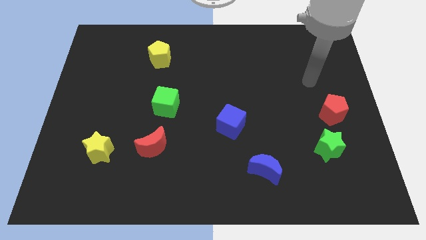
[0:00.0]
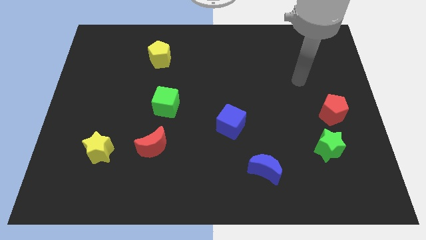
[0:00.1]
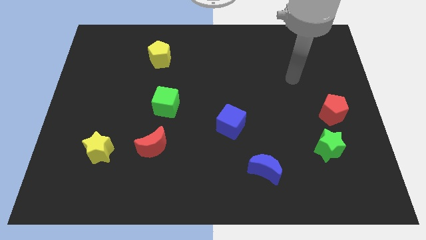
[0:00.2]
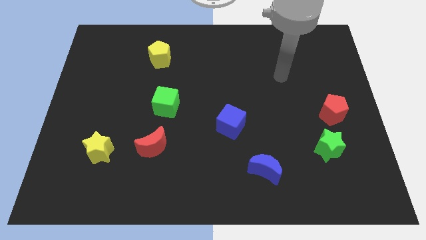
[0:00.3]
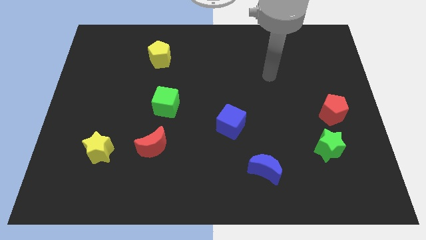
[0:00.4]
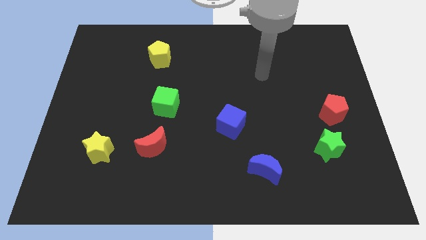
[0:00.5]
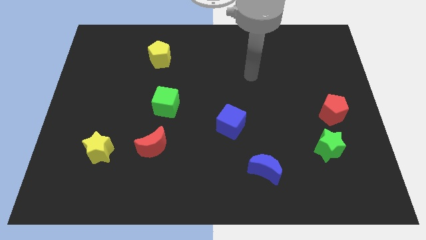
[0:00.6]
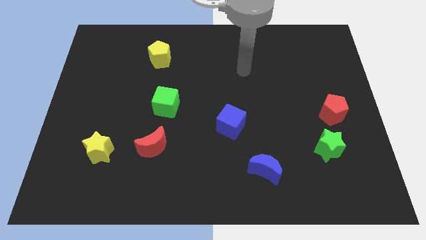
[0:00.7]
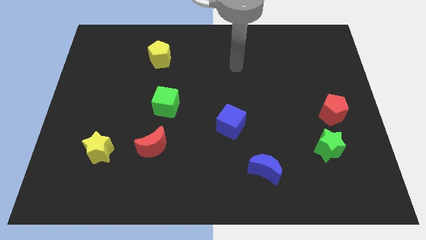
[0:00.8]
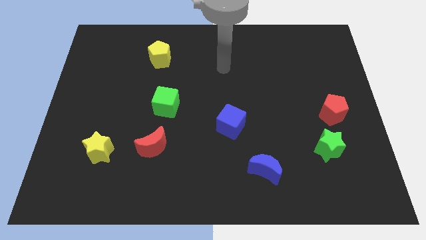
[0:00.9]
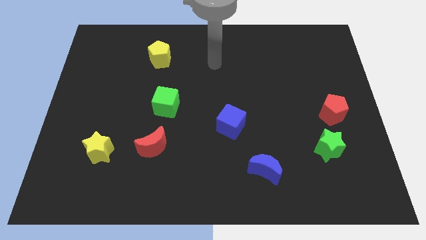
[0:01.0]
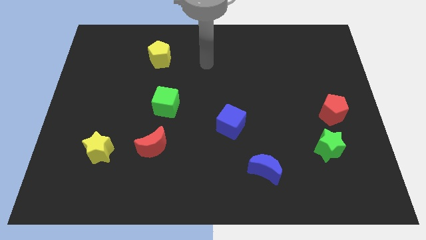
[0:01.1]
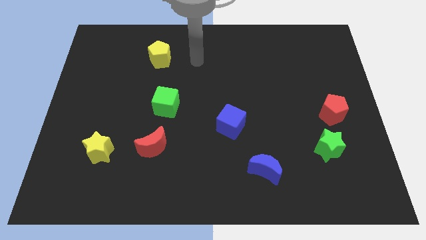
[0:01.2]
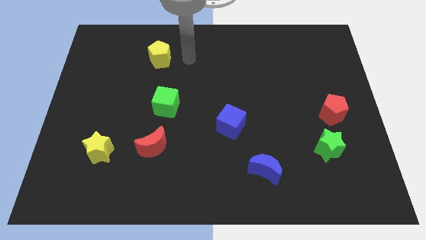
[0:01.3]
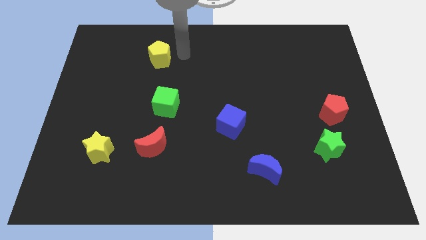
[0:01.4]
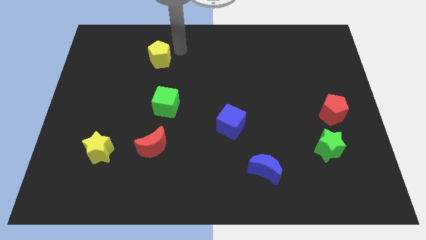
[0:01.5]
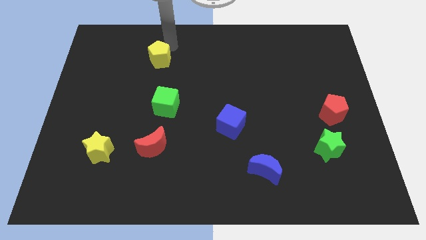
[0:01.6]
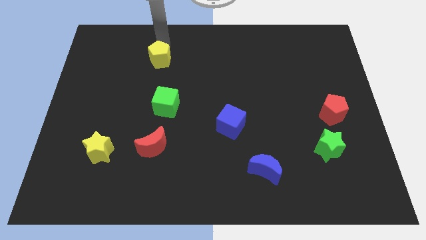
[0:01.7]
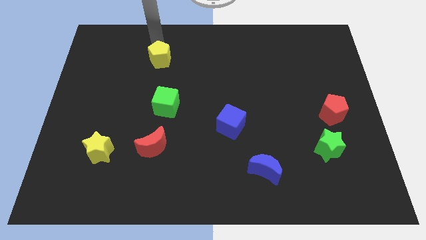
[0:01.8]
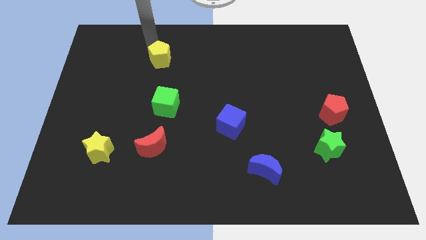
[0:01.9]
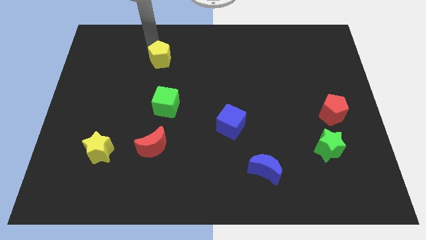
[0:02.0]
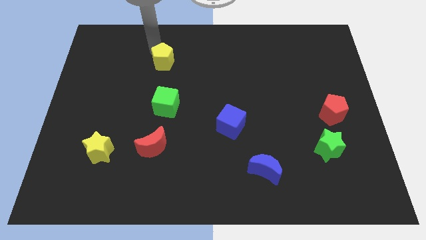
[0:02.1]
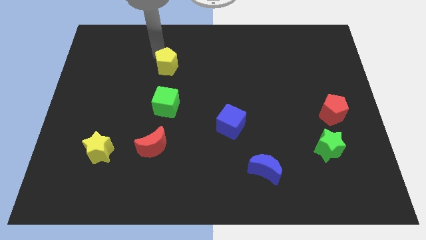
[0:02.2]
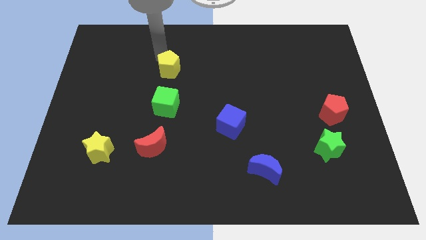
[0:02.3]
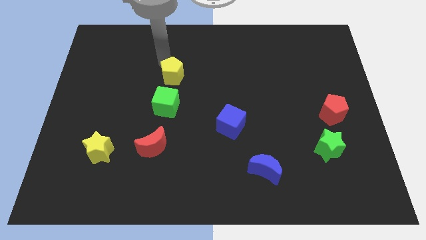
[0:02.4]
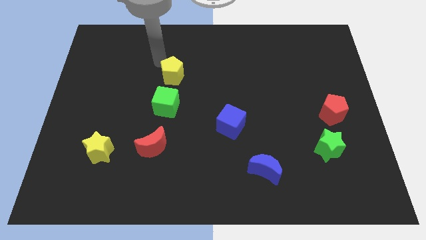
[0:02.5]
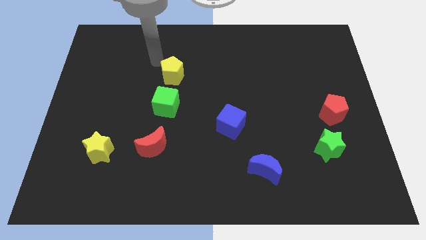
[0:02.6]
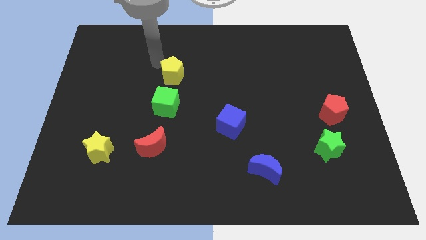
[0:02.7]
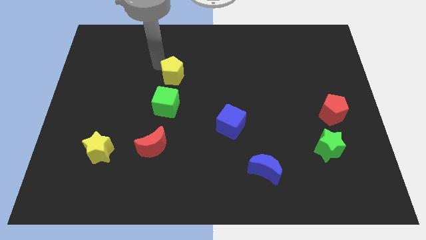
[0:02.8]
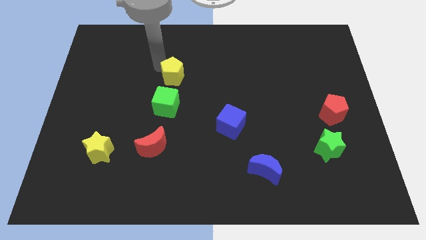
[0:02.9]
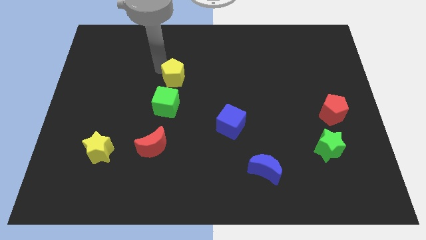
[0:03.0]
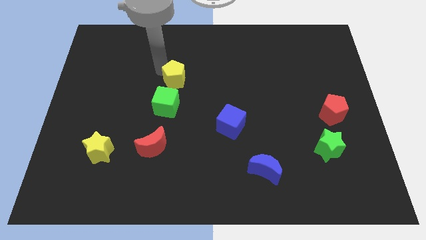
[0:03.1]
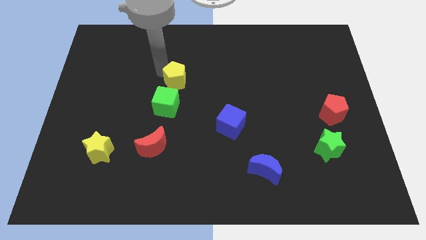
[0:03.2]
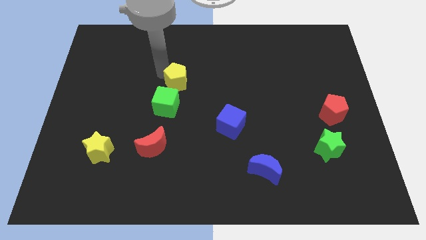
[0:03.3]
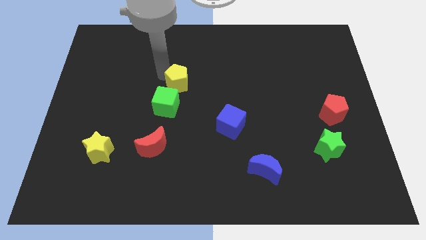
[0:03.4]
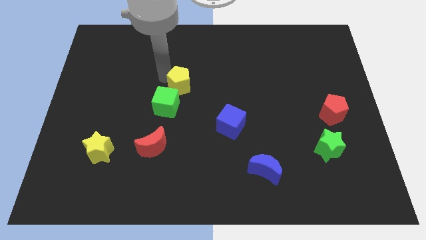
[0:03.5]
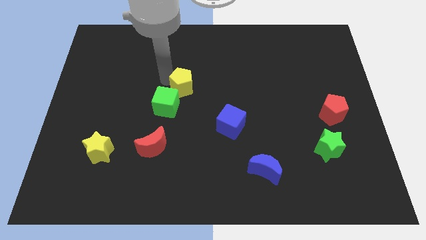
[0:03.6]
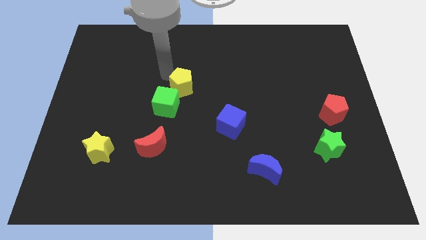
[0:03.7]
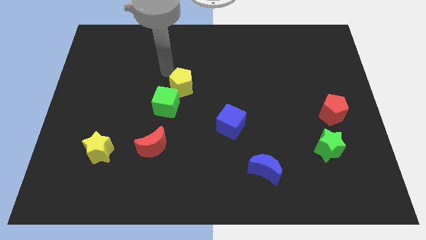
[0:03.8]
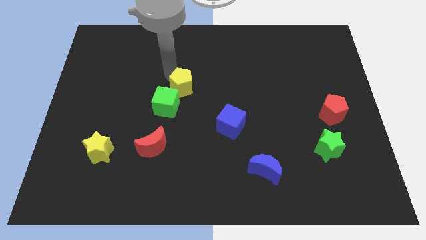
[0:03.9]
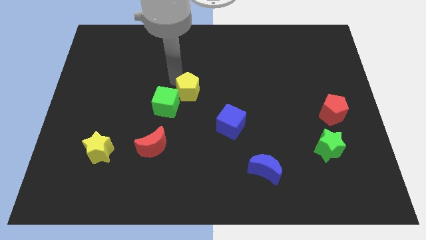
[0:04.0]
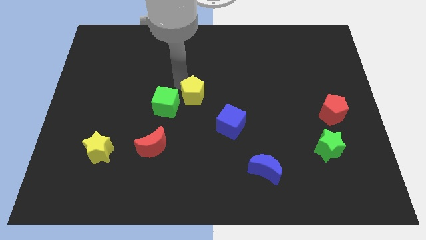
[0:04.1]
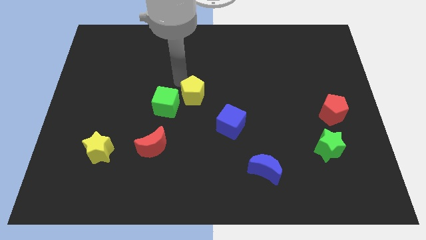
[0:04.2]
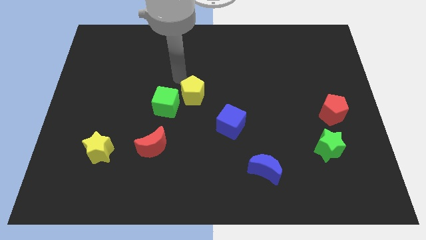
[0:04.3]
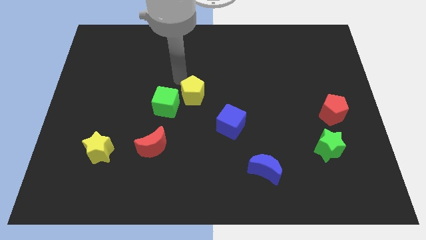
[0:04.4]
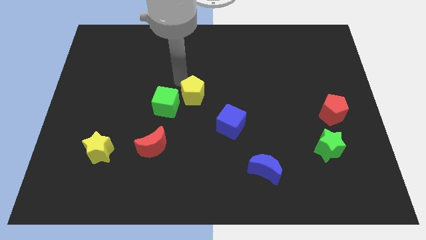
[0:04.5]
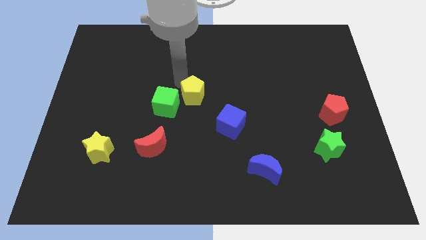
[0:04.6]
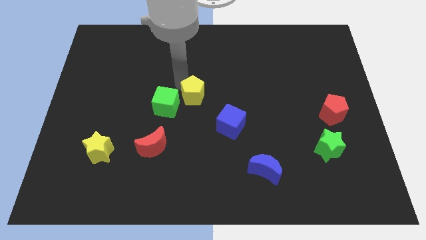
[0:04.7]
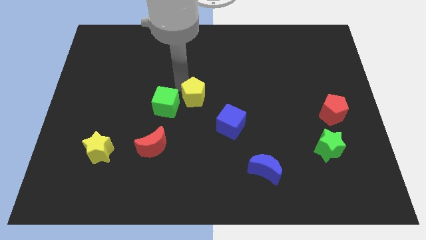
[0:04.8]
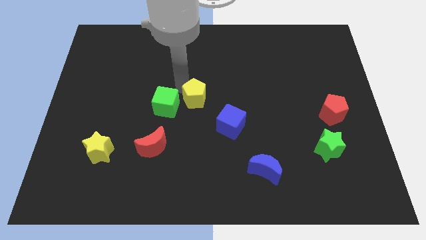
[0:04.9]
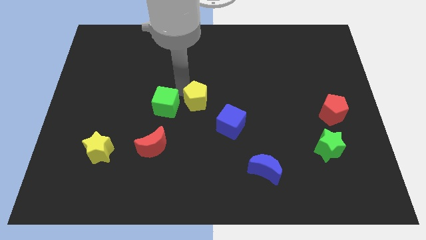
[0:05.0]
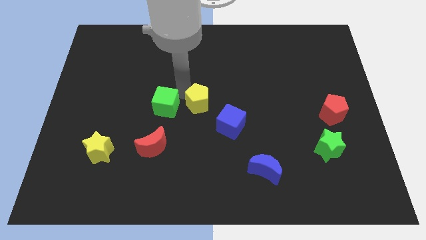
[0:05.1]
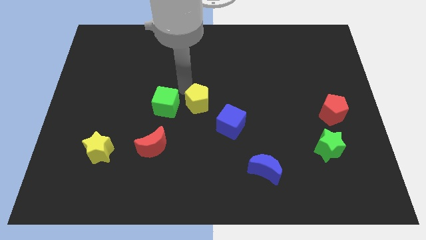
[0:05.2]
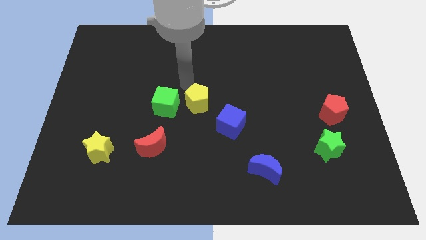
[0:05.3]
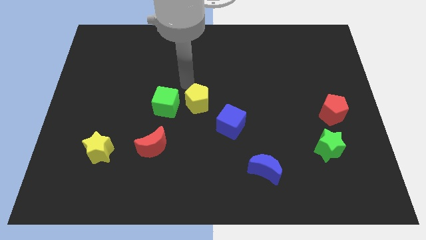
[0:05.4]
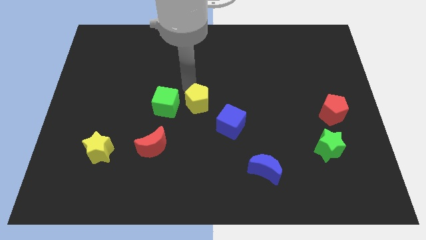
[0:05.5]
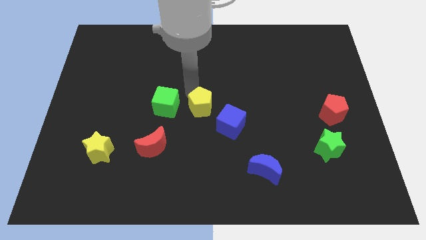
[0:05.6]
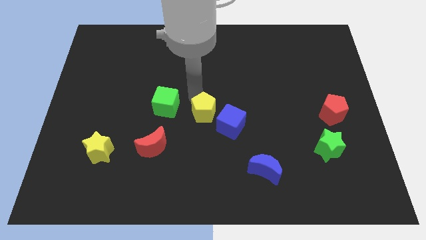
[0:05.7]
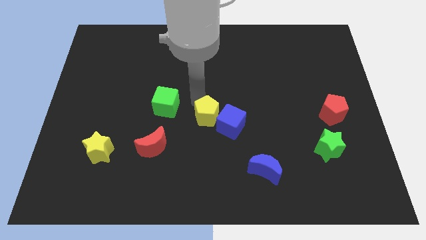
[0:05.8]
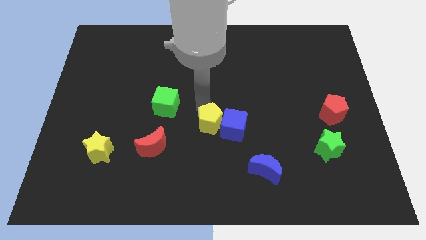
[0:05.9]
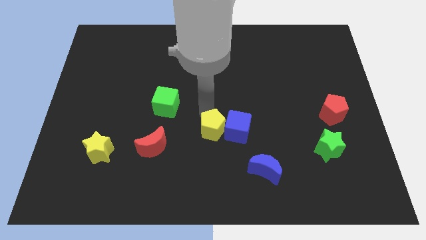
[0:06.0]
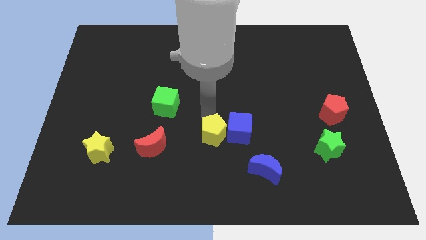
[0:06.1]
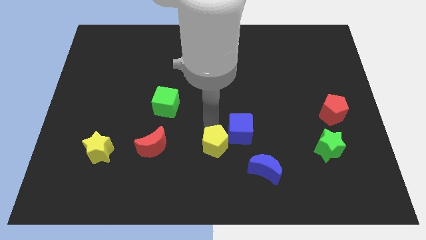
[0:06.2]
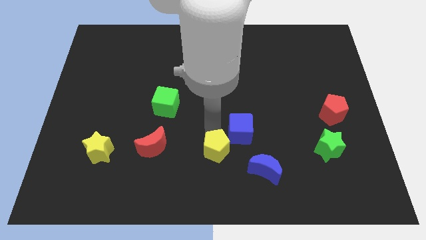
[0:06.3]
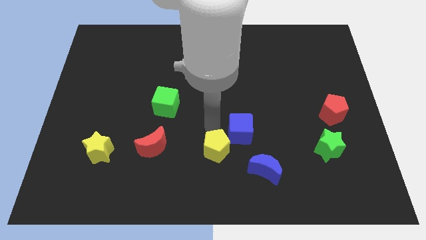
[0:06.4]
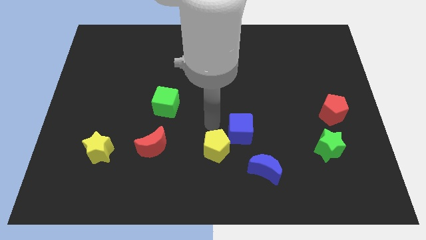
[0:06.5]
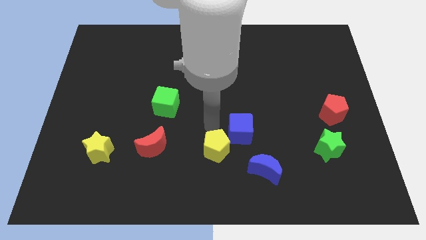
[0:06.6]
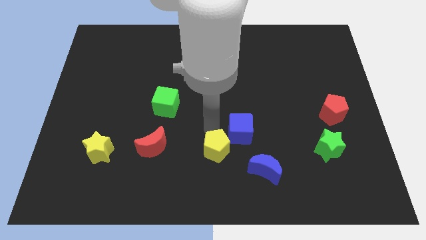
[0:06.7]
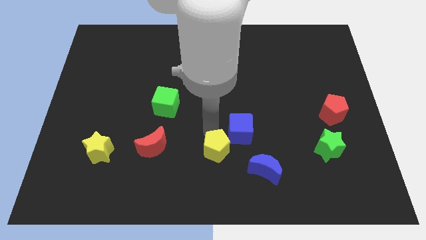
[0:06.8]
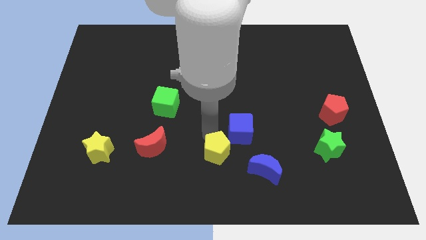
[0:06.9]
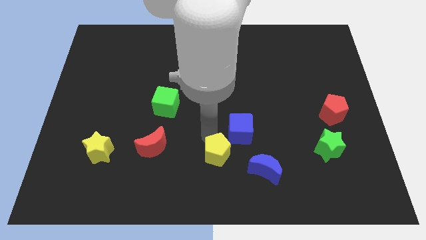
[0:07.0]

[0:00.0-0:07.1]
push the yellow pentagon to the bottom
